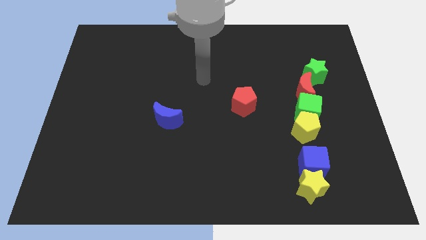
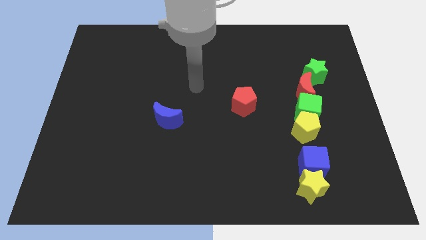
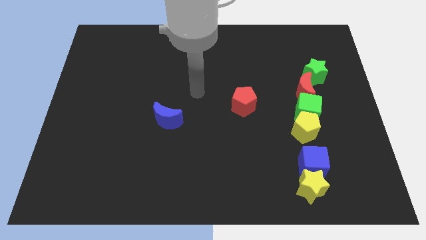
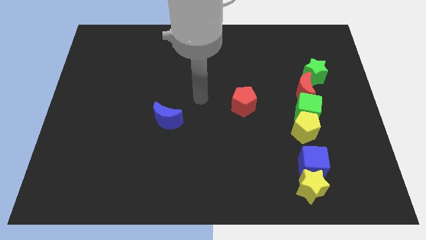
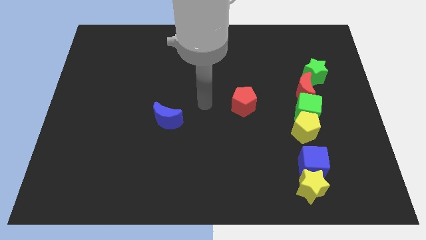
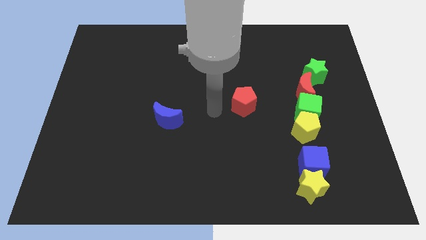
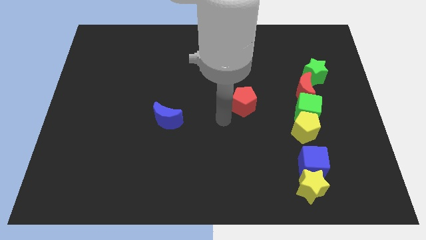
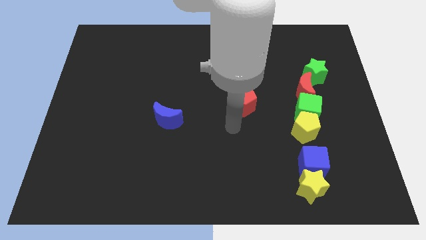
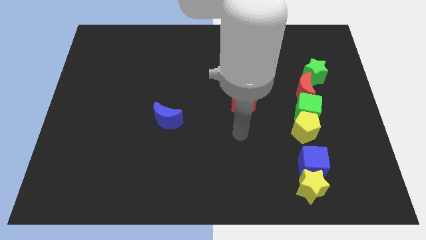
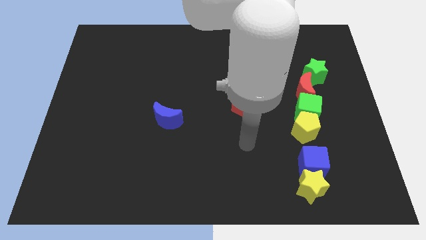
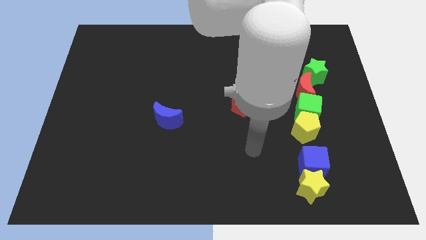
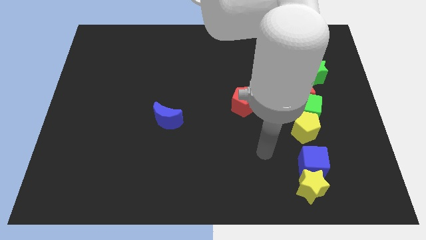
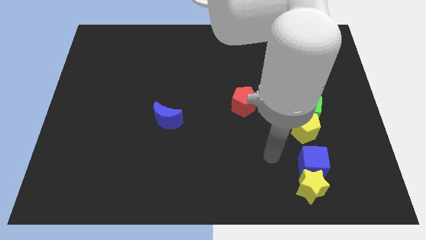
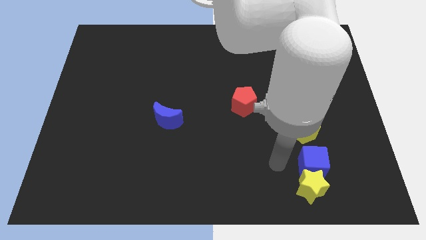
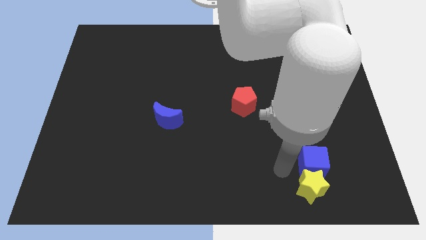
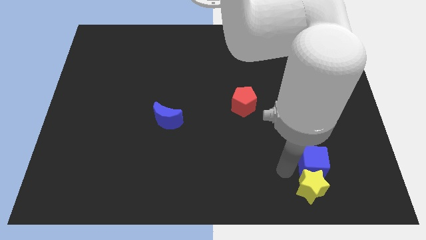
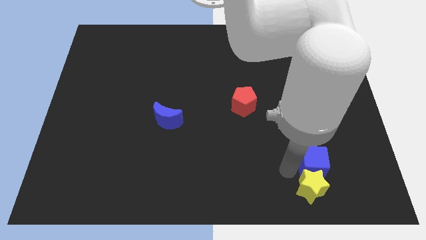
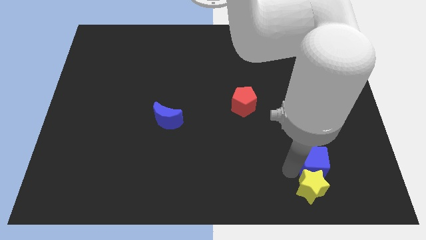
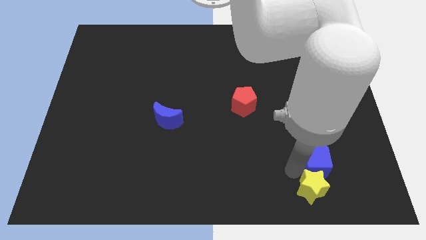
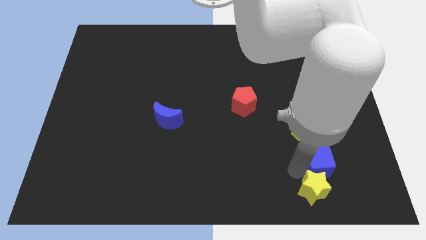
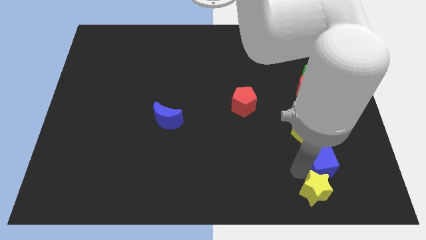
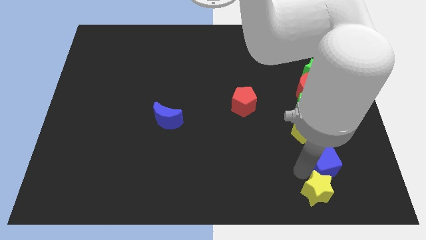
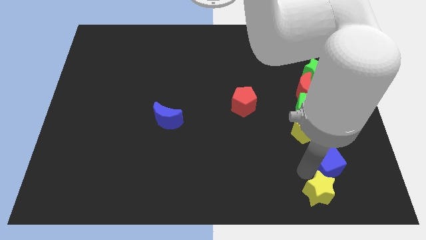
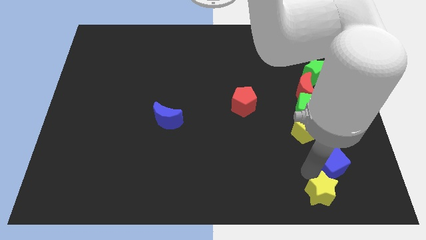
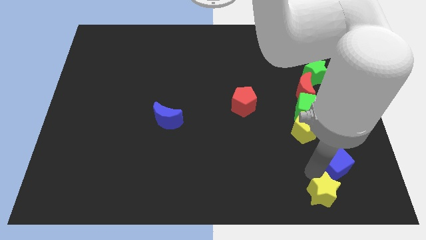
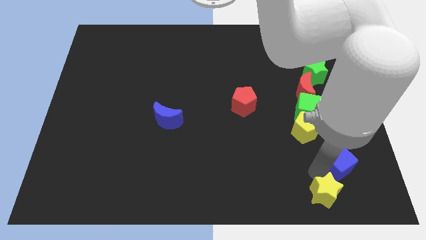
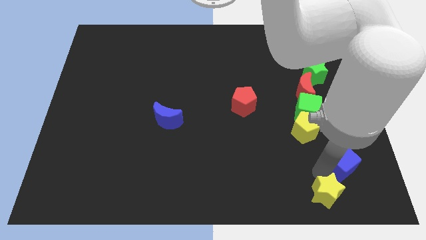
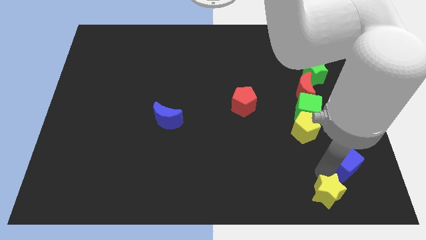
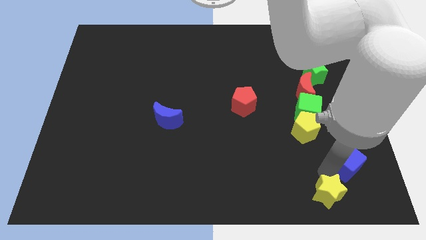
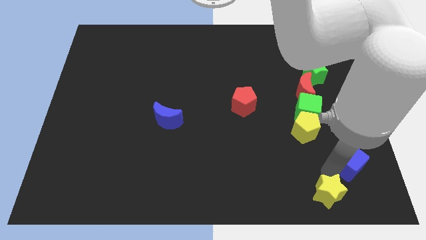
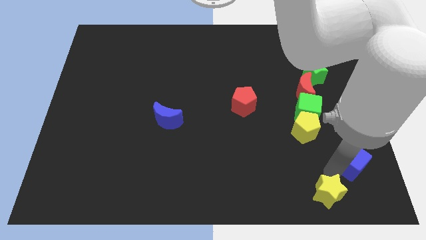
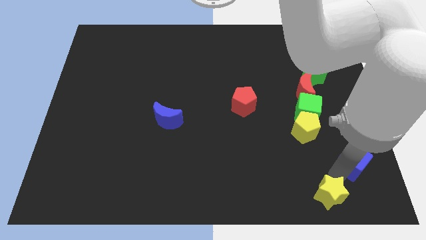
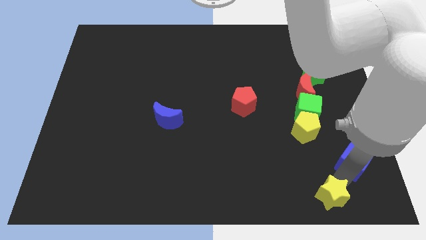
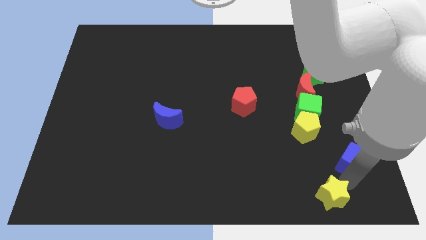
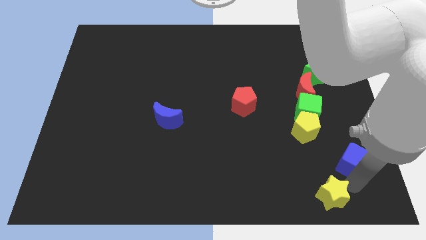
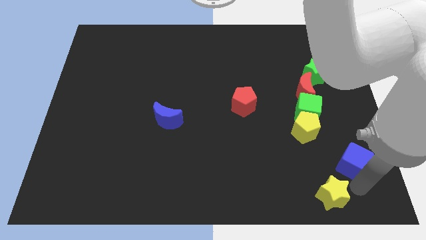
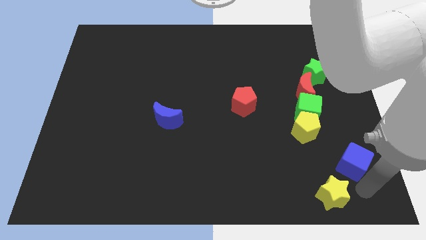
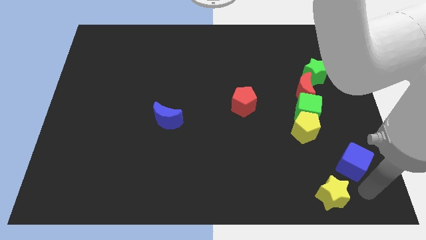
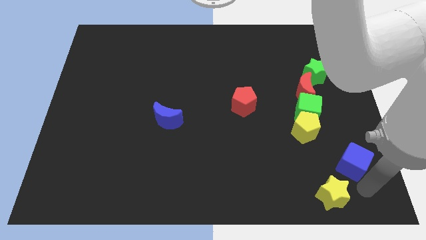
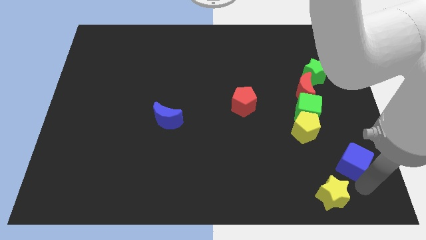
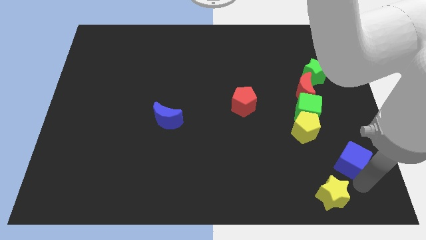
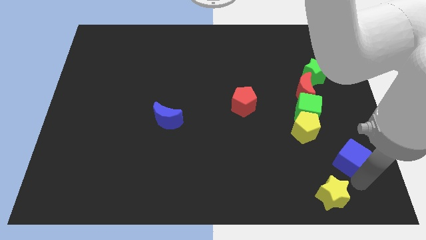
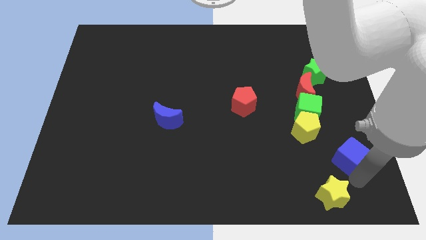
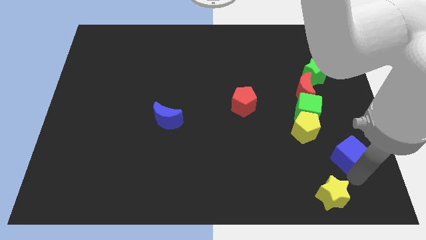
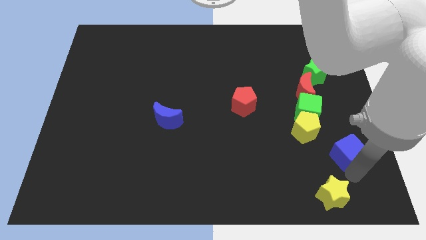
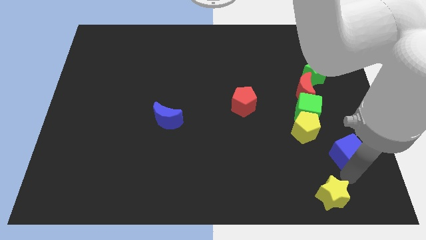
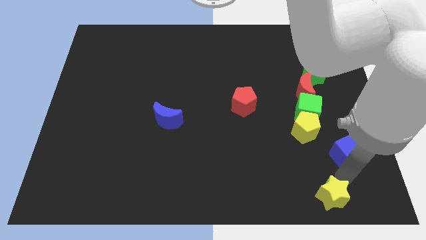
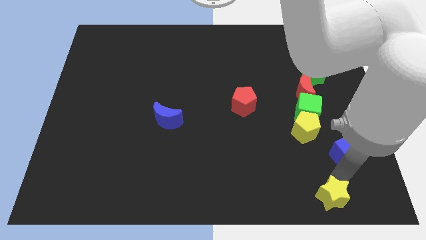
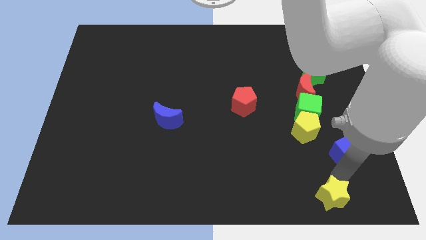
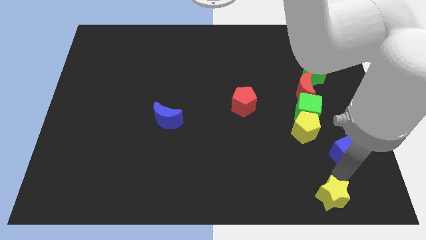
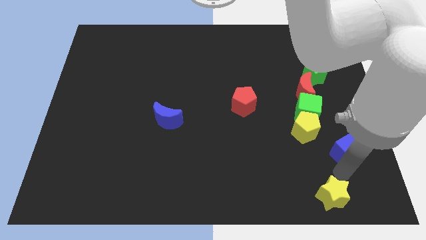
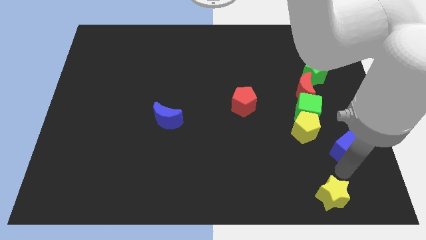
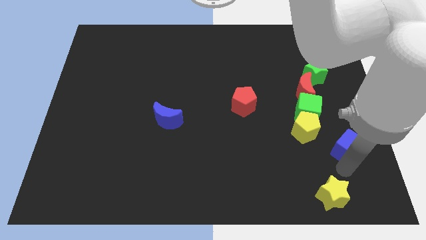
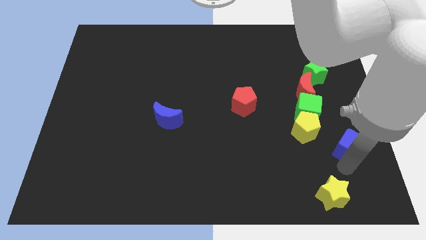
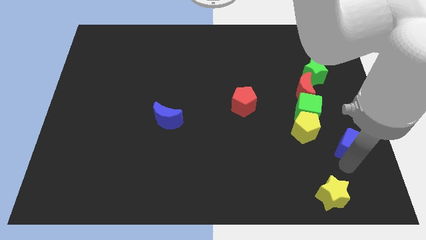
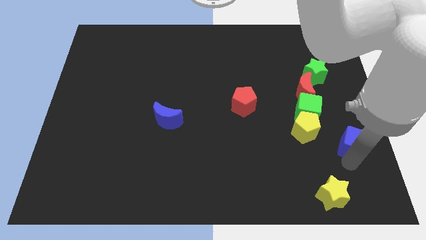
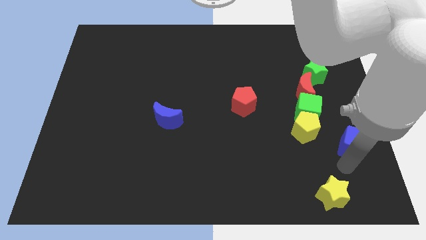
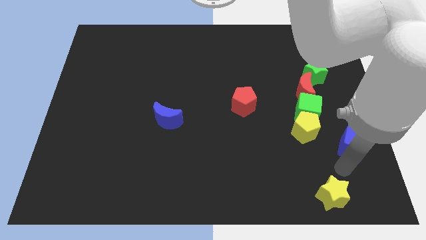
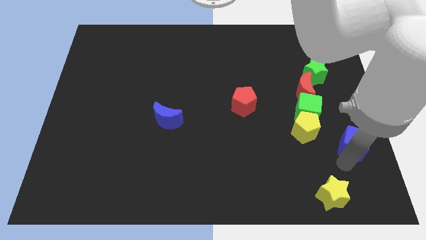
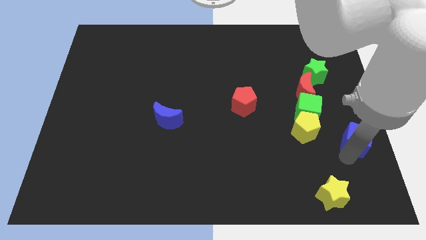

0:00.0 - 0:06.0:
push the blue cube to the center right
